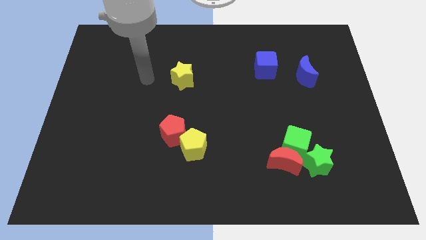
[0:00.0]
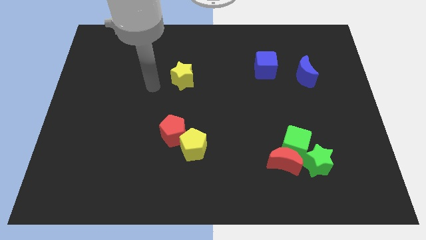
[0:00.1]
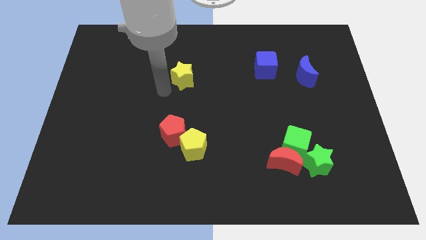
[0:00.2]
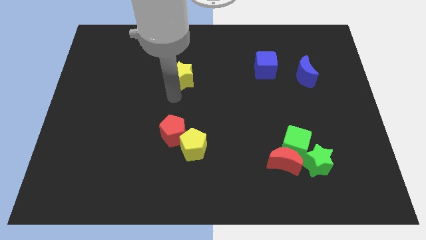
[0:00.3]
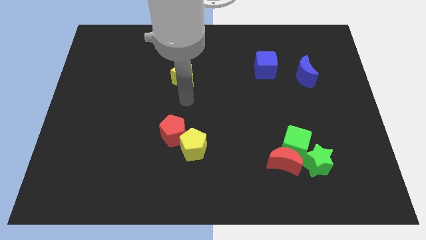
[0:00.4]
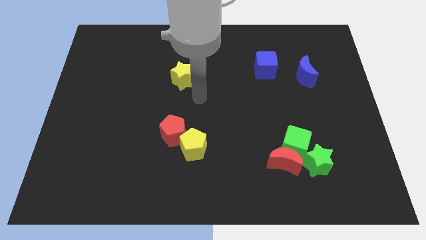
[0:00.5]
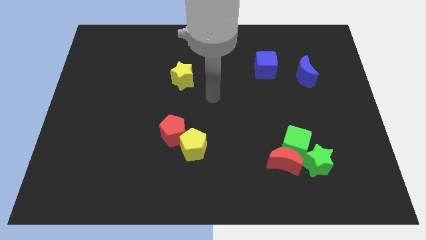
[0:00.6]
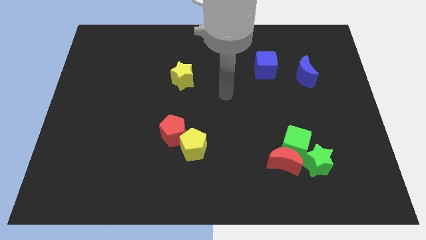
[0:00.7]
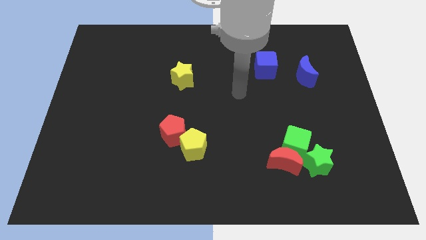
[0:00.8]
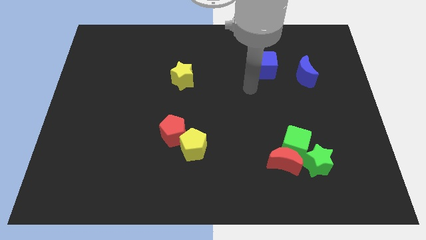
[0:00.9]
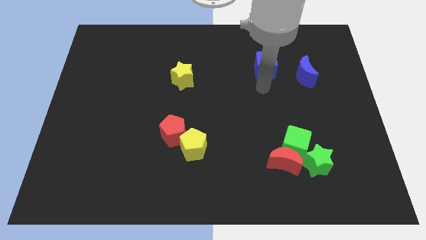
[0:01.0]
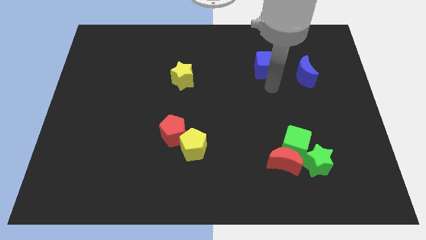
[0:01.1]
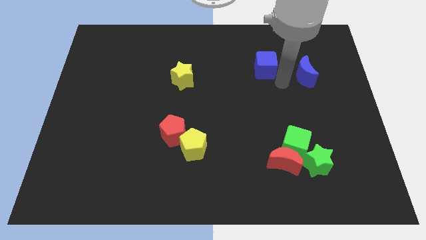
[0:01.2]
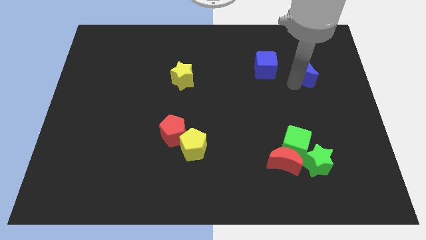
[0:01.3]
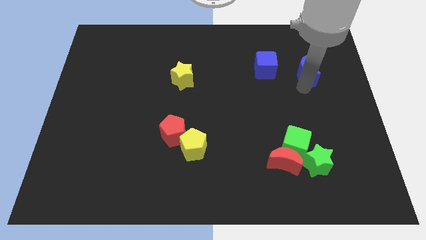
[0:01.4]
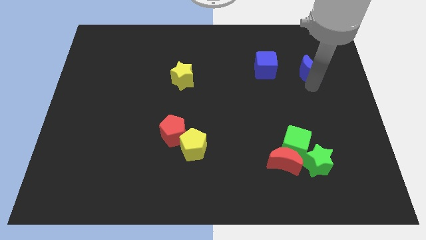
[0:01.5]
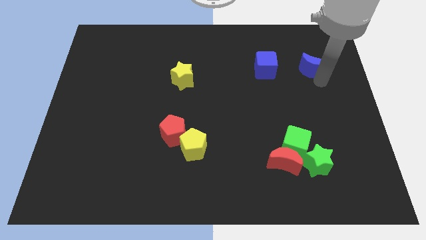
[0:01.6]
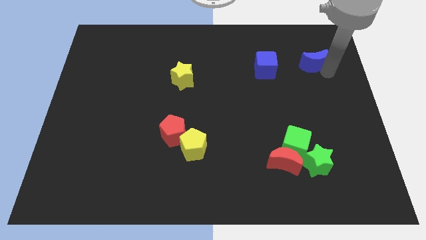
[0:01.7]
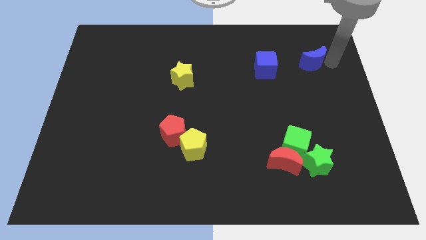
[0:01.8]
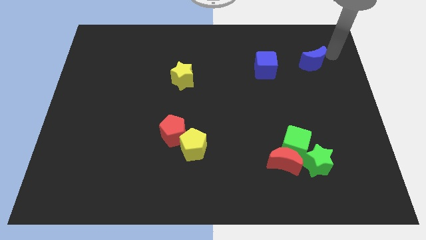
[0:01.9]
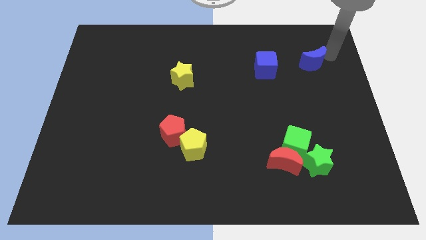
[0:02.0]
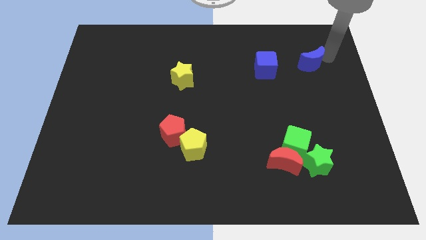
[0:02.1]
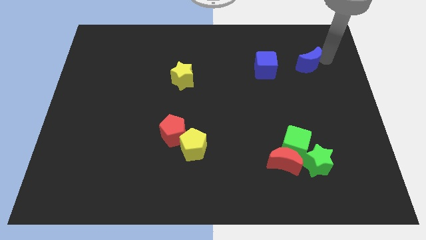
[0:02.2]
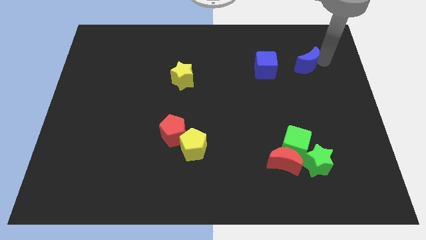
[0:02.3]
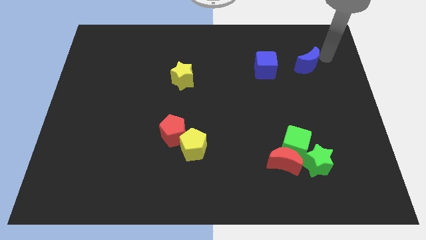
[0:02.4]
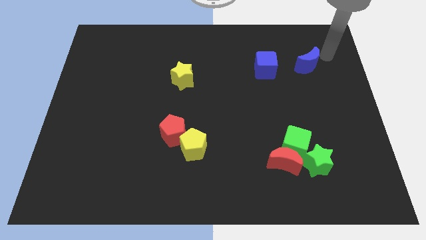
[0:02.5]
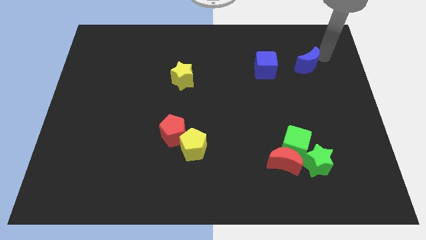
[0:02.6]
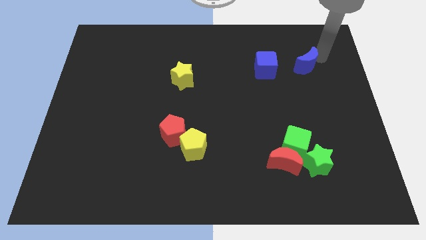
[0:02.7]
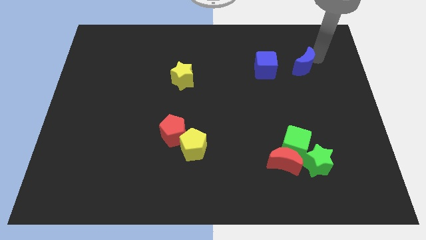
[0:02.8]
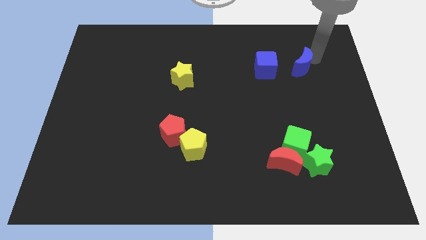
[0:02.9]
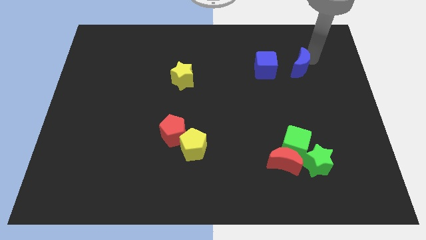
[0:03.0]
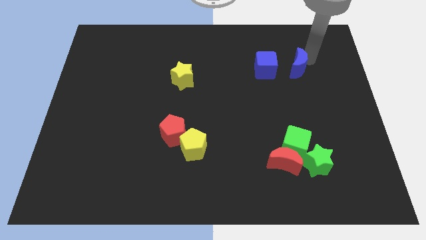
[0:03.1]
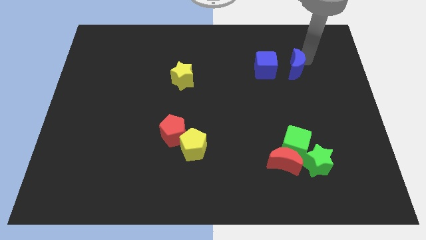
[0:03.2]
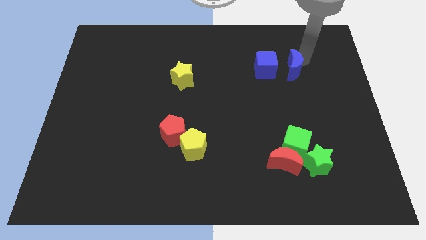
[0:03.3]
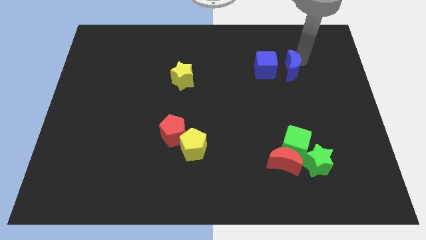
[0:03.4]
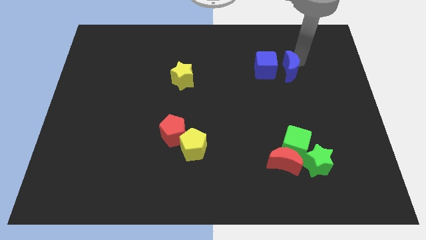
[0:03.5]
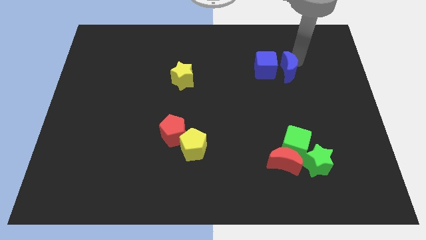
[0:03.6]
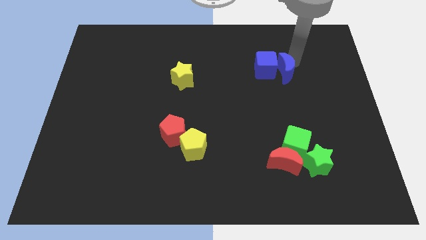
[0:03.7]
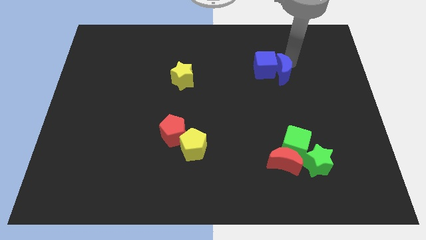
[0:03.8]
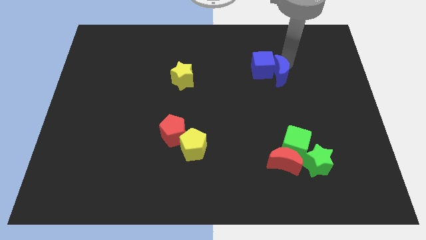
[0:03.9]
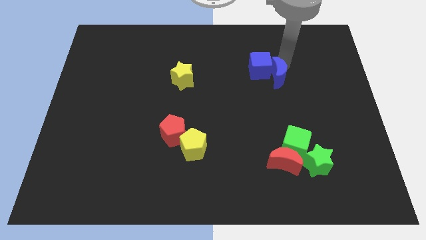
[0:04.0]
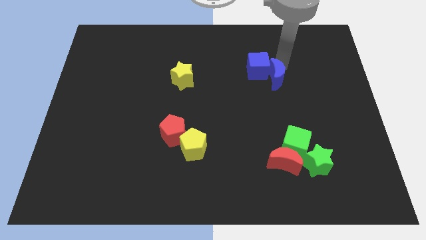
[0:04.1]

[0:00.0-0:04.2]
slide the blue moon left a little

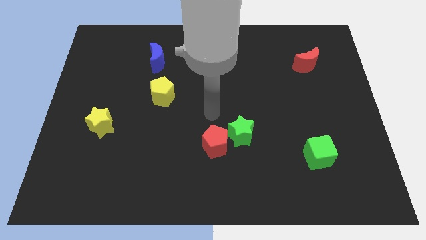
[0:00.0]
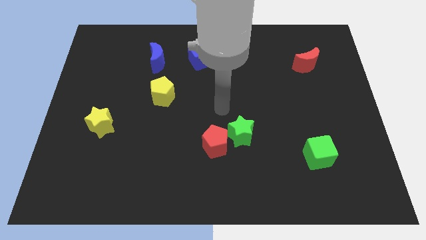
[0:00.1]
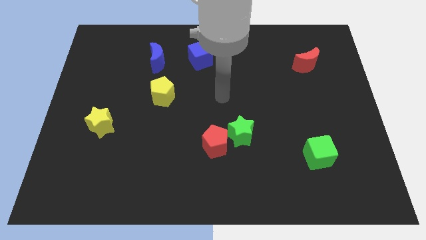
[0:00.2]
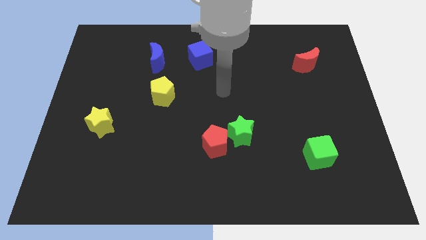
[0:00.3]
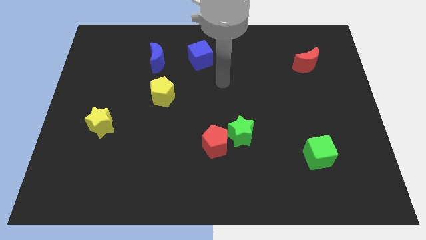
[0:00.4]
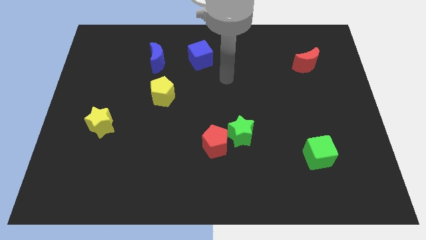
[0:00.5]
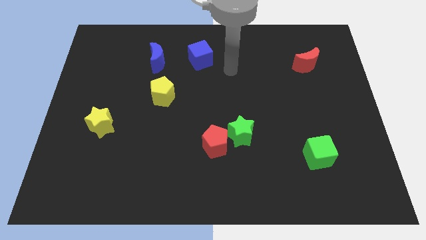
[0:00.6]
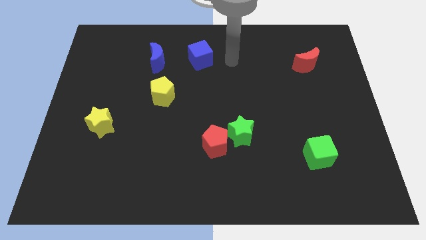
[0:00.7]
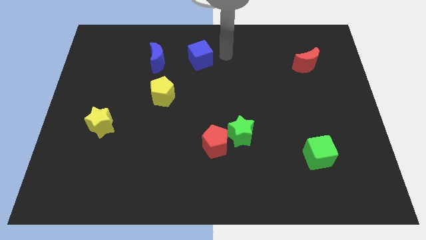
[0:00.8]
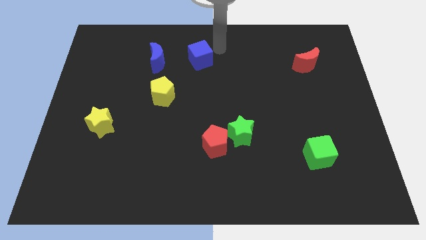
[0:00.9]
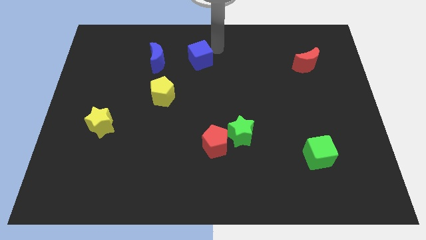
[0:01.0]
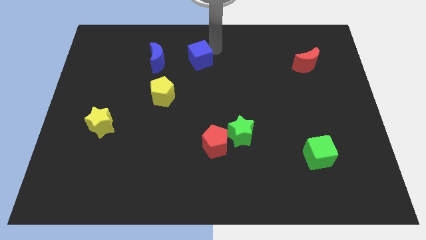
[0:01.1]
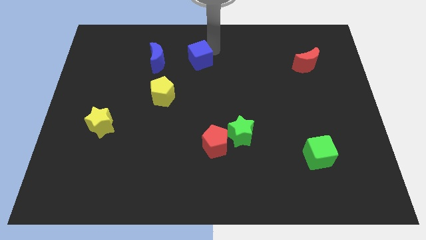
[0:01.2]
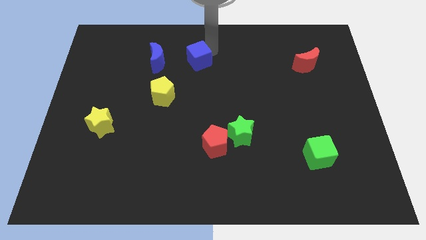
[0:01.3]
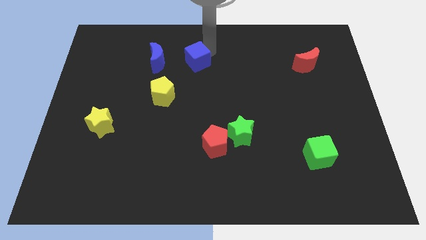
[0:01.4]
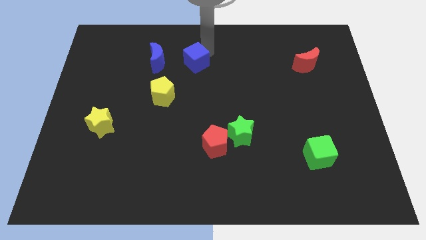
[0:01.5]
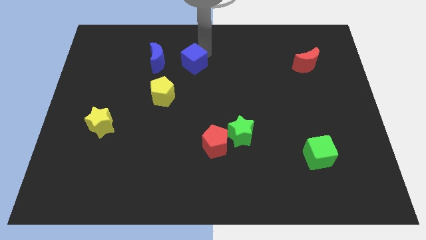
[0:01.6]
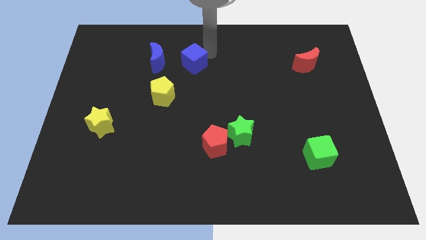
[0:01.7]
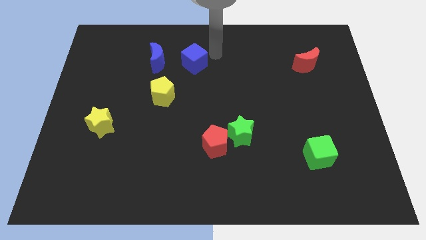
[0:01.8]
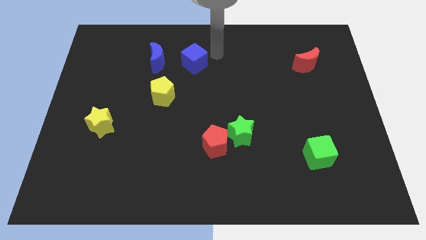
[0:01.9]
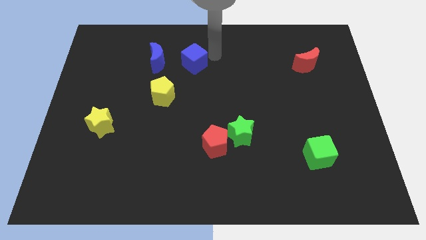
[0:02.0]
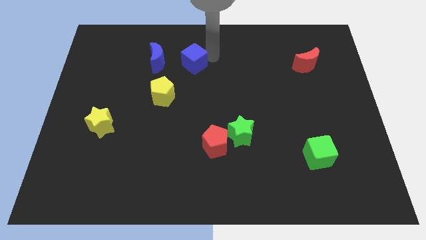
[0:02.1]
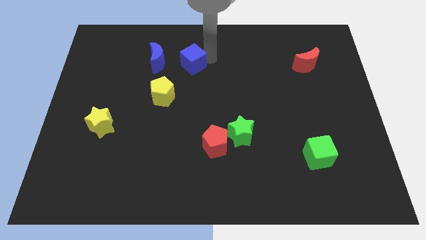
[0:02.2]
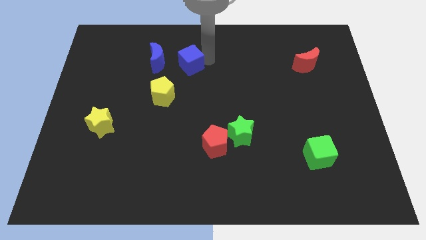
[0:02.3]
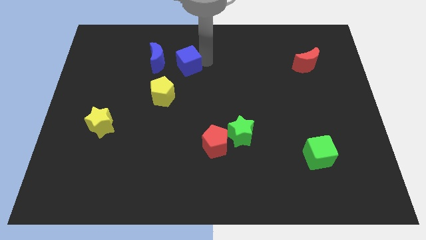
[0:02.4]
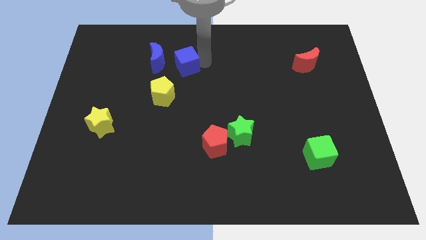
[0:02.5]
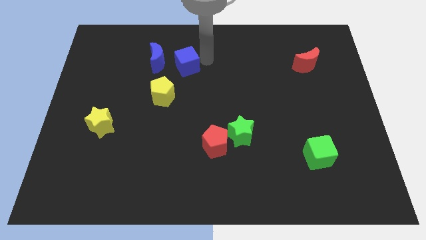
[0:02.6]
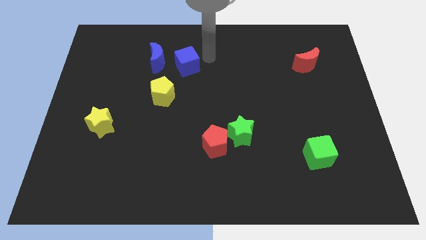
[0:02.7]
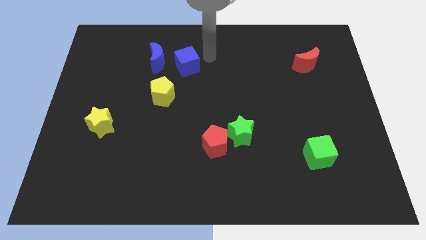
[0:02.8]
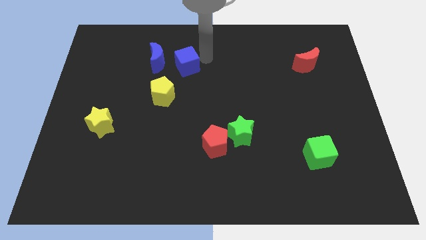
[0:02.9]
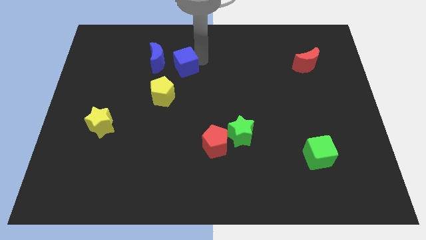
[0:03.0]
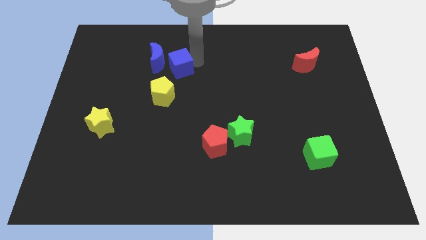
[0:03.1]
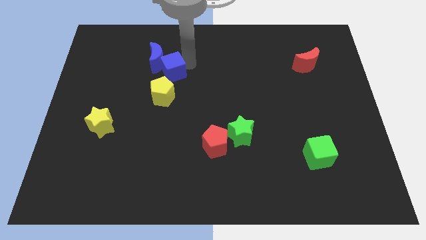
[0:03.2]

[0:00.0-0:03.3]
push the blue cube down and then left a little

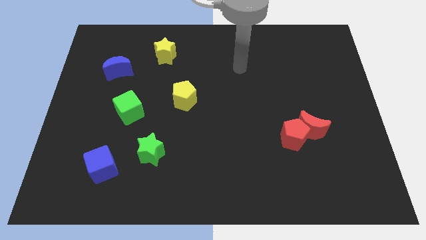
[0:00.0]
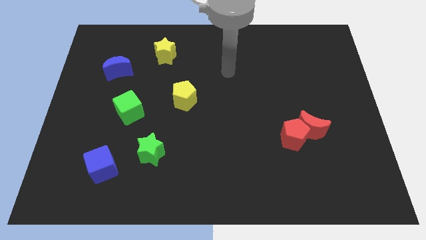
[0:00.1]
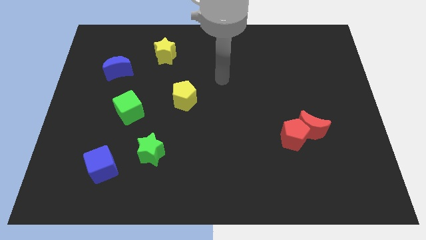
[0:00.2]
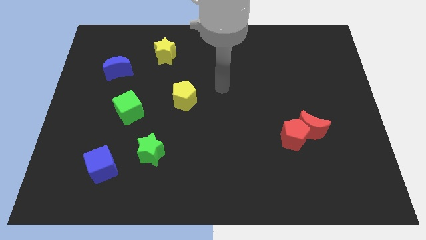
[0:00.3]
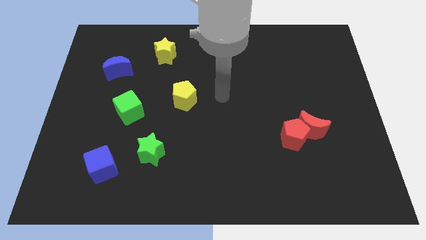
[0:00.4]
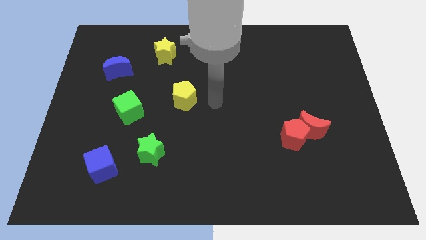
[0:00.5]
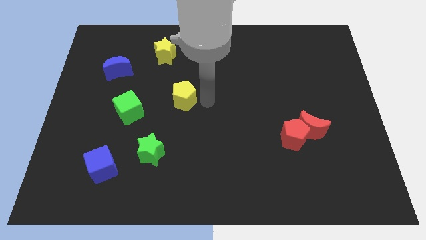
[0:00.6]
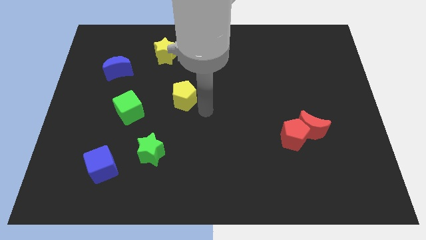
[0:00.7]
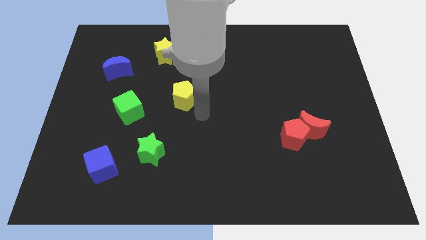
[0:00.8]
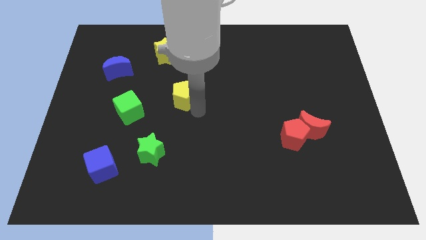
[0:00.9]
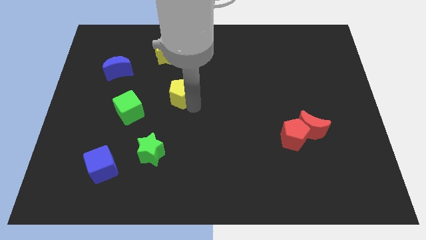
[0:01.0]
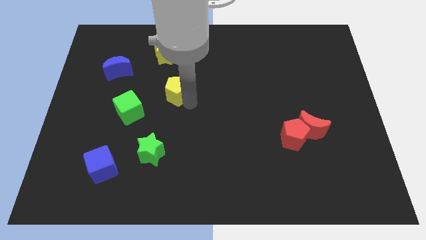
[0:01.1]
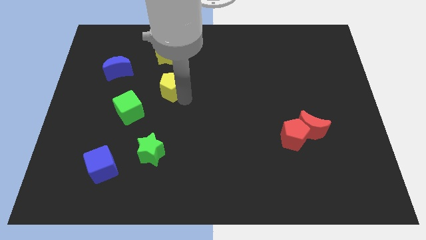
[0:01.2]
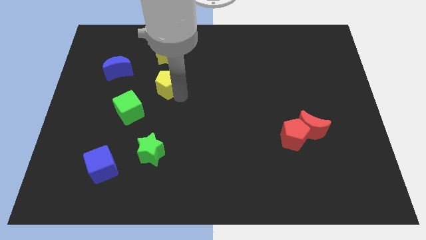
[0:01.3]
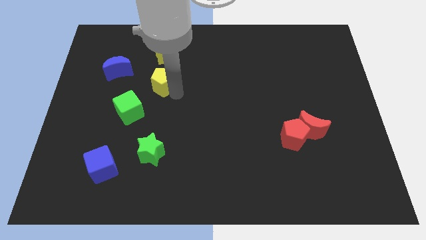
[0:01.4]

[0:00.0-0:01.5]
move the yellow pentagon upwards and to the left somewhat
